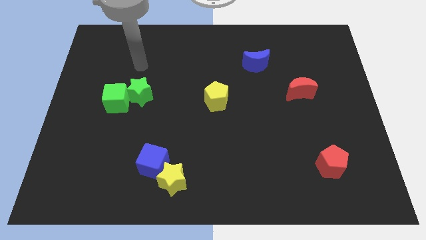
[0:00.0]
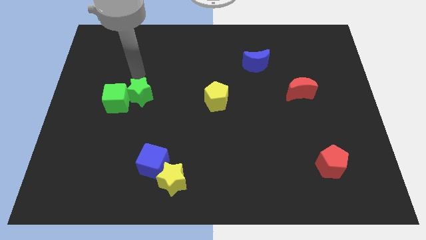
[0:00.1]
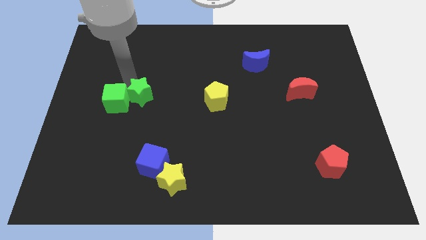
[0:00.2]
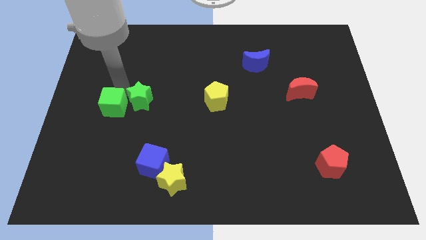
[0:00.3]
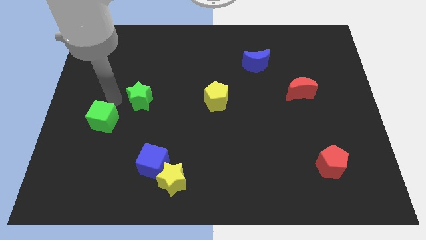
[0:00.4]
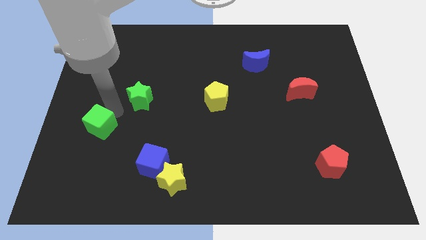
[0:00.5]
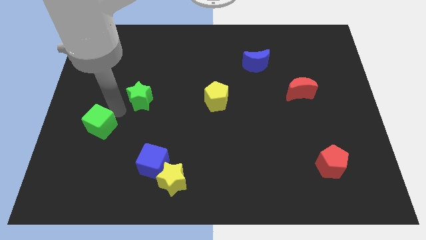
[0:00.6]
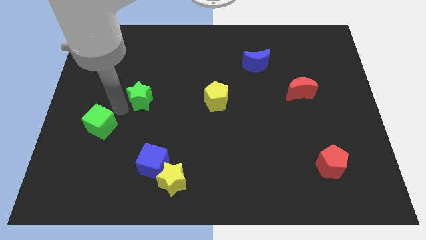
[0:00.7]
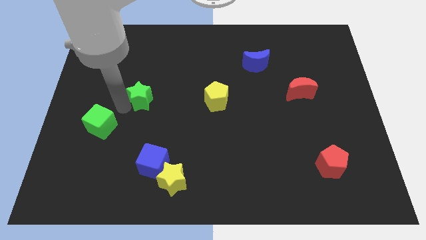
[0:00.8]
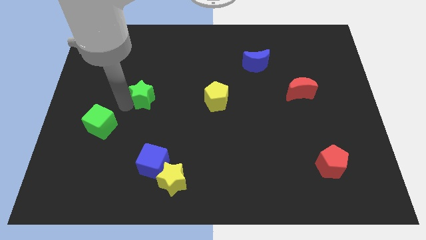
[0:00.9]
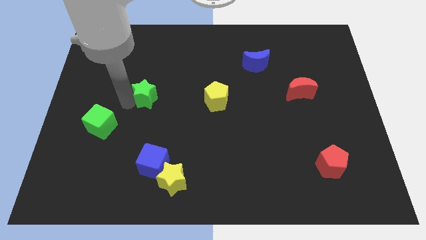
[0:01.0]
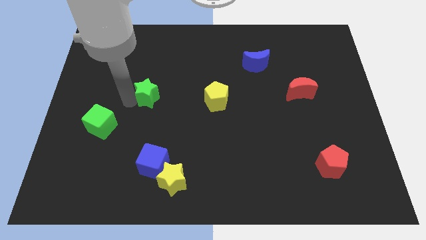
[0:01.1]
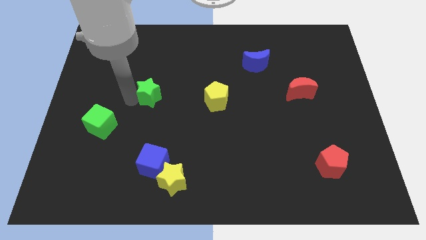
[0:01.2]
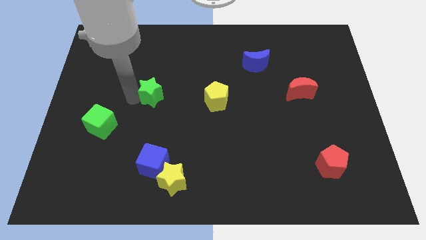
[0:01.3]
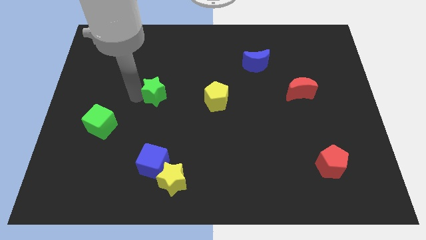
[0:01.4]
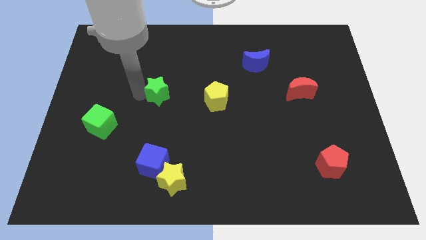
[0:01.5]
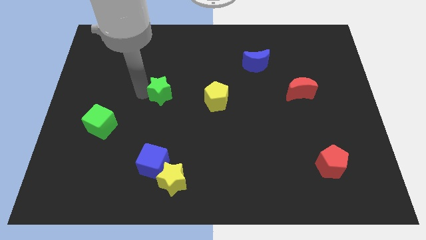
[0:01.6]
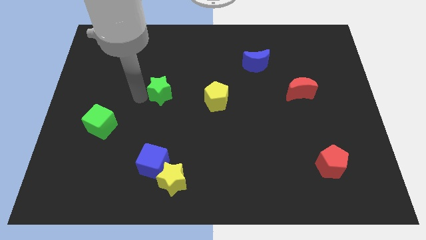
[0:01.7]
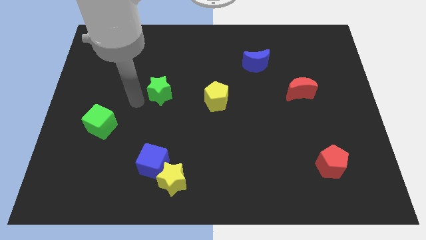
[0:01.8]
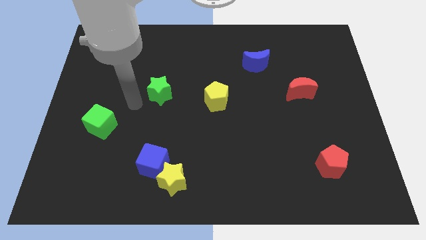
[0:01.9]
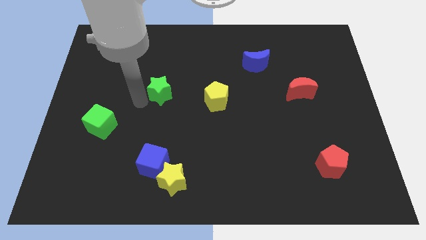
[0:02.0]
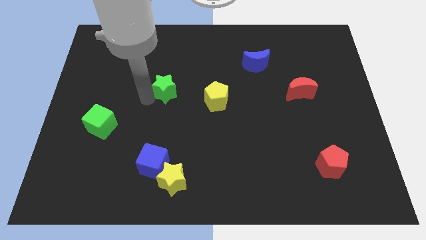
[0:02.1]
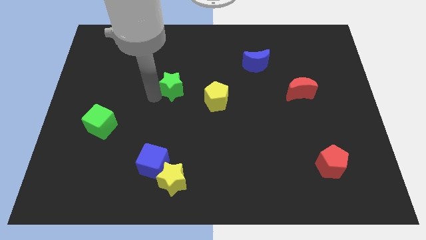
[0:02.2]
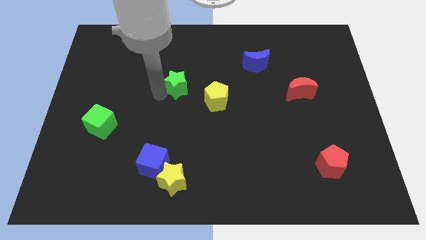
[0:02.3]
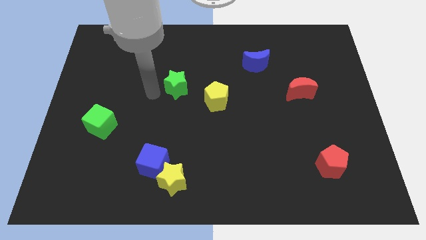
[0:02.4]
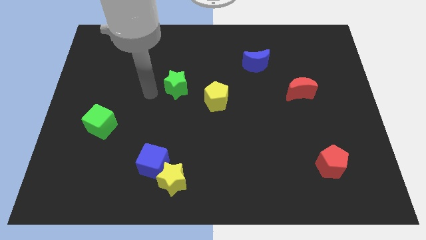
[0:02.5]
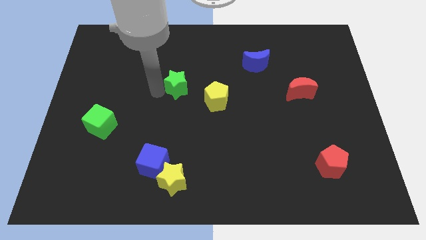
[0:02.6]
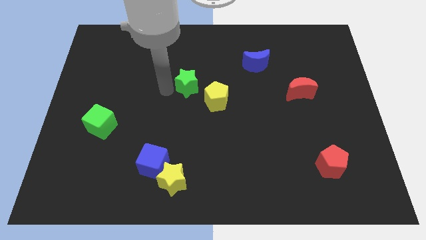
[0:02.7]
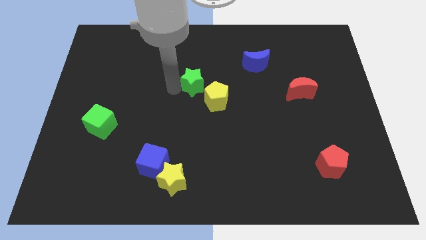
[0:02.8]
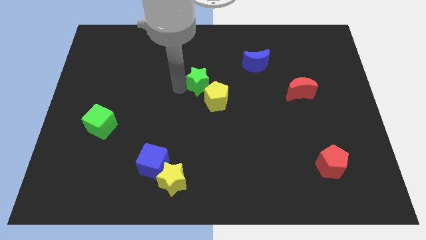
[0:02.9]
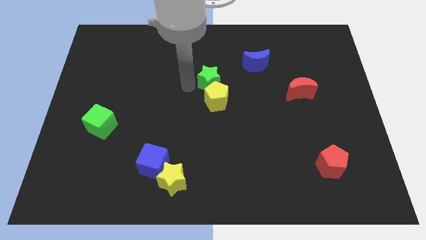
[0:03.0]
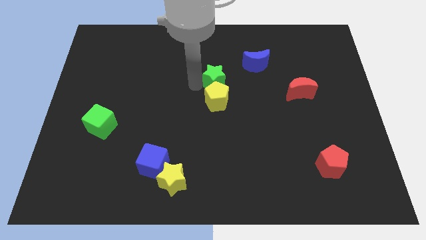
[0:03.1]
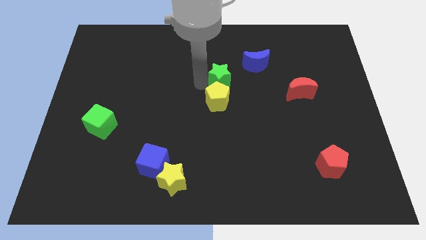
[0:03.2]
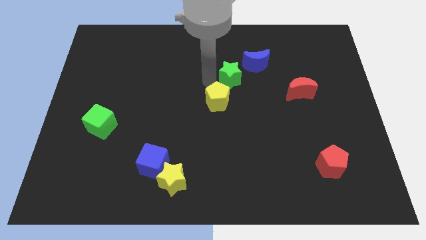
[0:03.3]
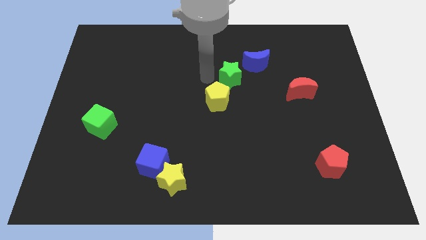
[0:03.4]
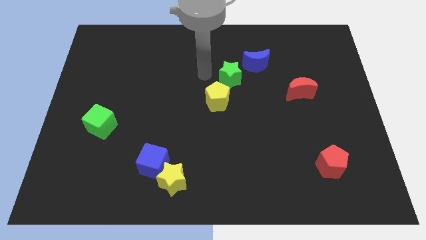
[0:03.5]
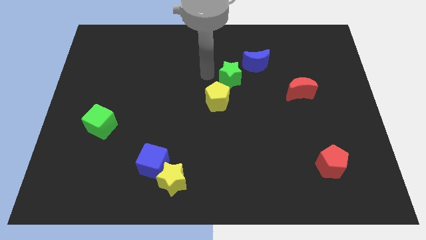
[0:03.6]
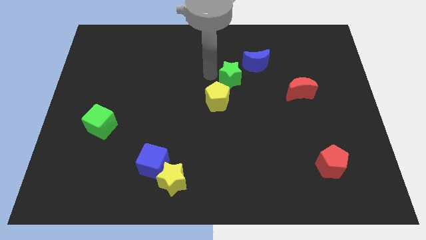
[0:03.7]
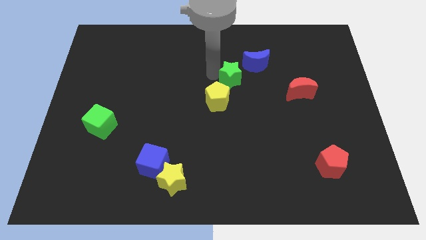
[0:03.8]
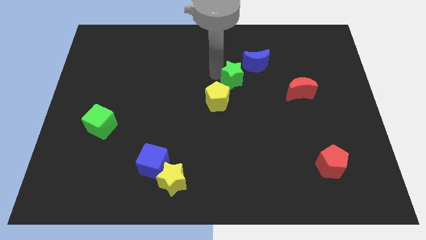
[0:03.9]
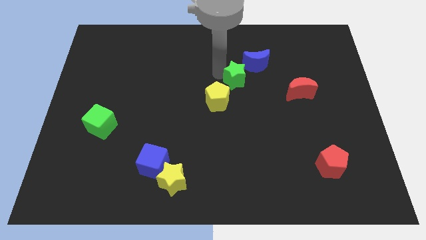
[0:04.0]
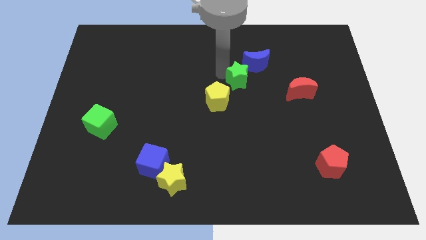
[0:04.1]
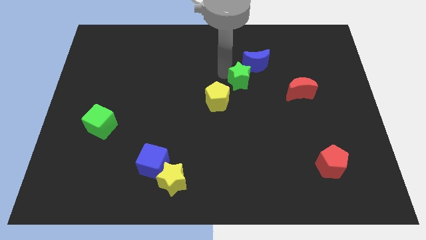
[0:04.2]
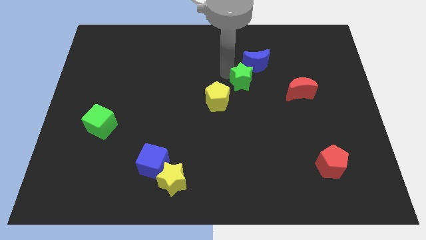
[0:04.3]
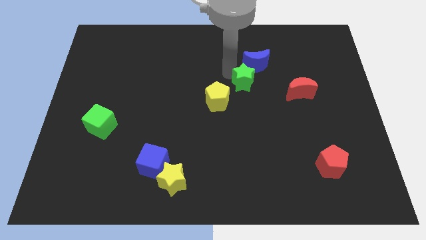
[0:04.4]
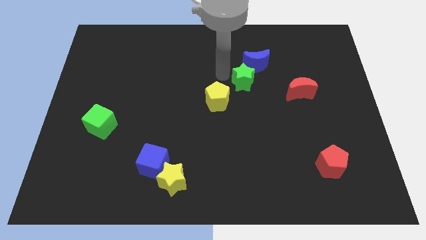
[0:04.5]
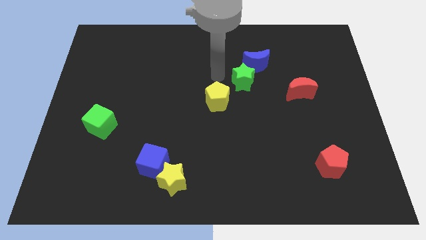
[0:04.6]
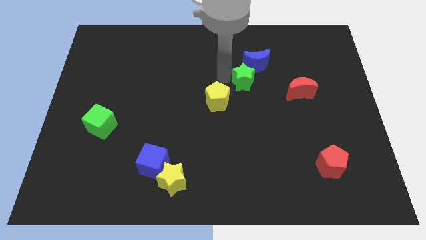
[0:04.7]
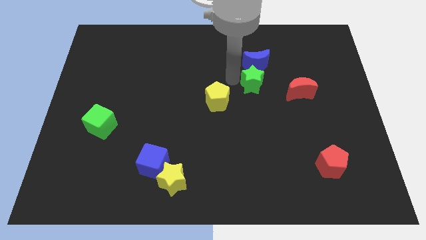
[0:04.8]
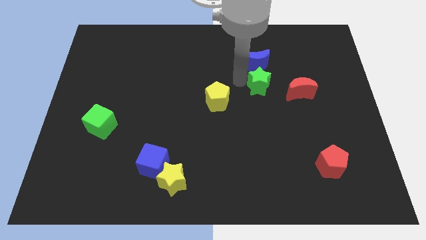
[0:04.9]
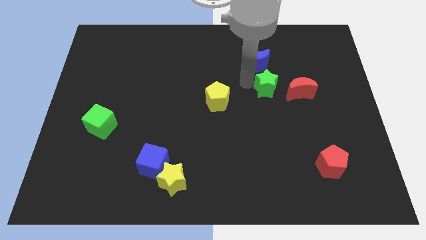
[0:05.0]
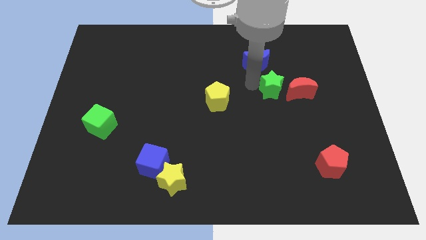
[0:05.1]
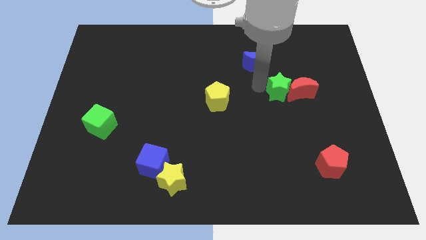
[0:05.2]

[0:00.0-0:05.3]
put the green star next to the red moon

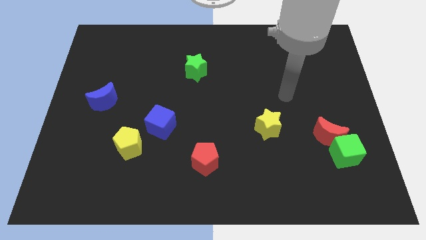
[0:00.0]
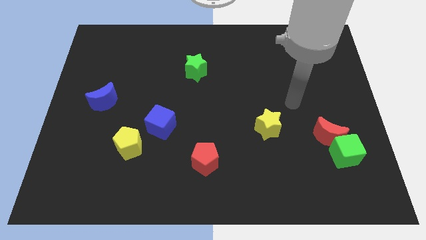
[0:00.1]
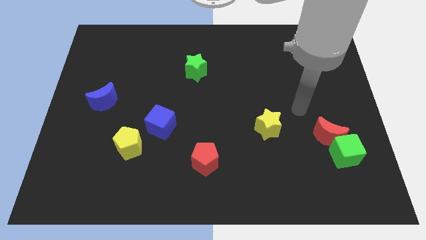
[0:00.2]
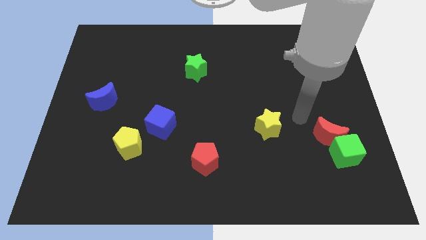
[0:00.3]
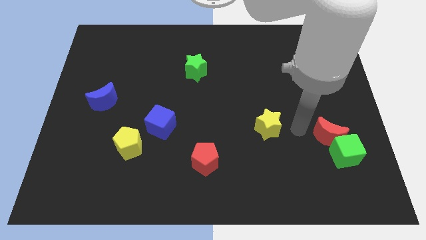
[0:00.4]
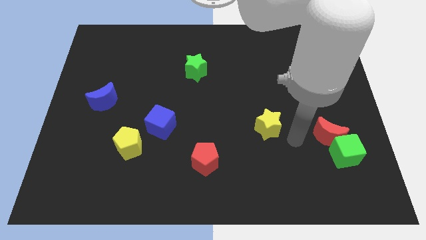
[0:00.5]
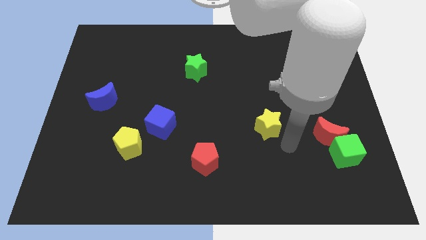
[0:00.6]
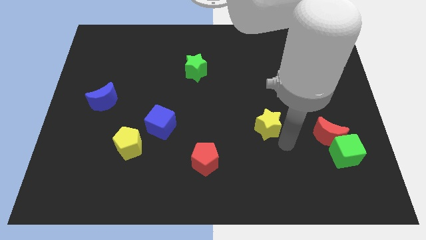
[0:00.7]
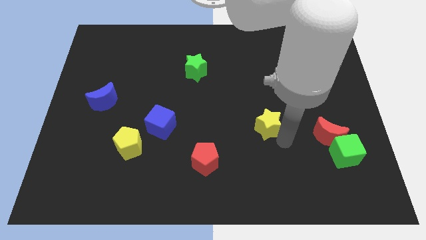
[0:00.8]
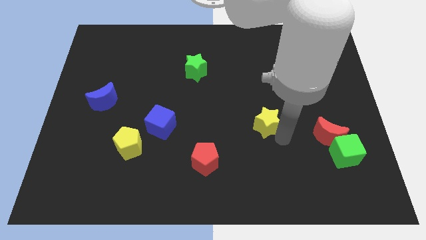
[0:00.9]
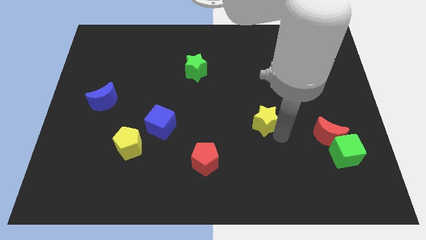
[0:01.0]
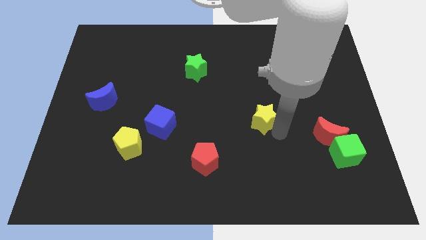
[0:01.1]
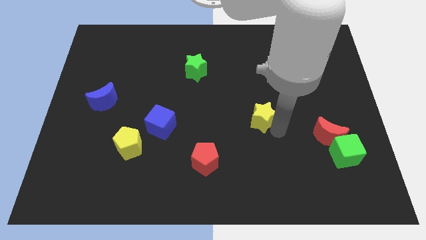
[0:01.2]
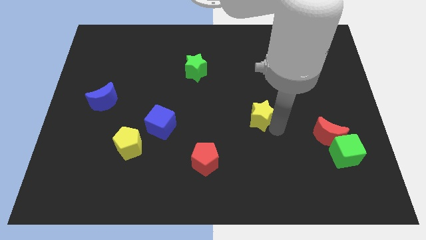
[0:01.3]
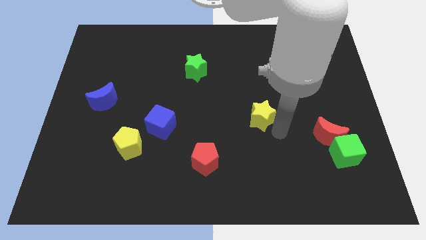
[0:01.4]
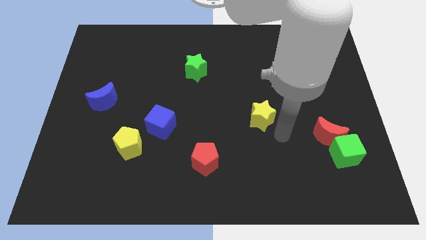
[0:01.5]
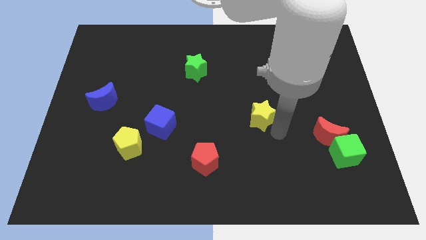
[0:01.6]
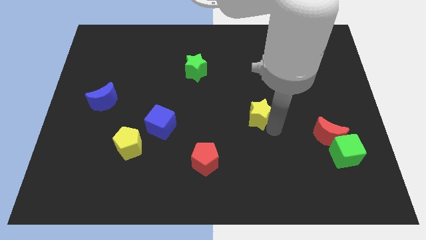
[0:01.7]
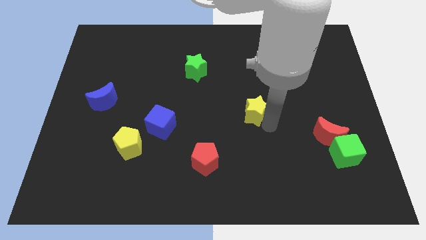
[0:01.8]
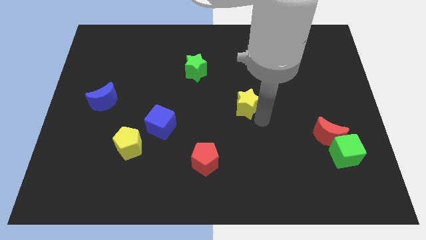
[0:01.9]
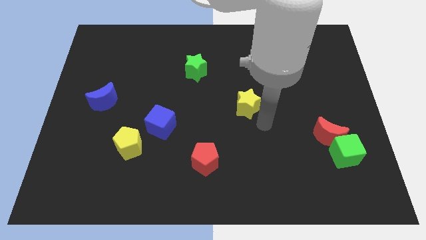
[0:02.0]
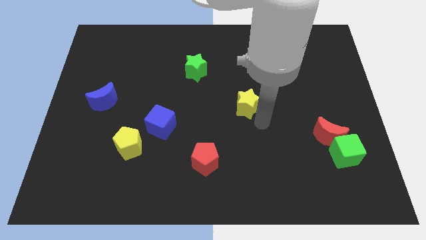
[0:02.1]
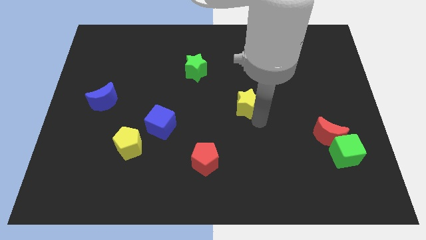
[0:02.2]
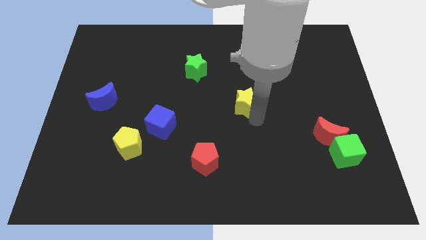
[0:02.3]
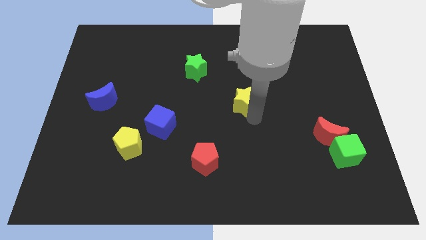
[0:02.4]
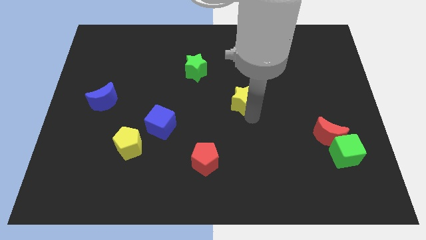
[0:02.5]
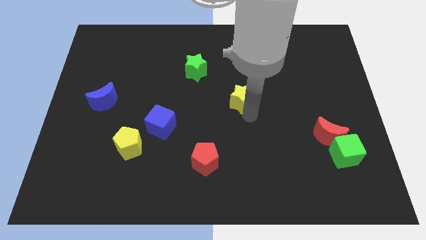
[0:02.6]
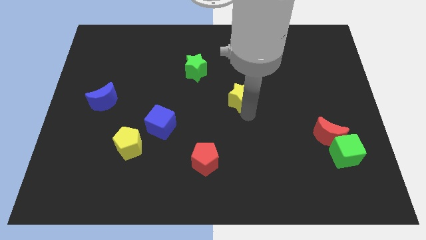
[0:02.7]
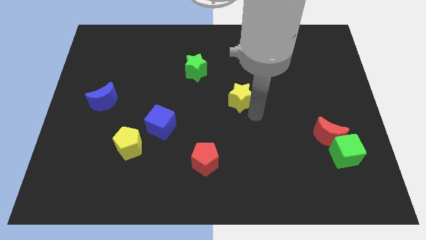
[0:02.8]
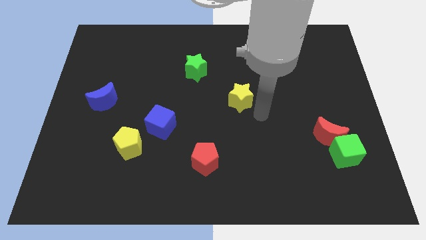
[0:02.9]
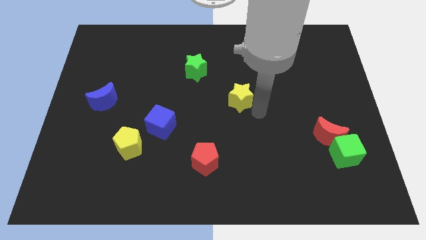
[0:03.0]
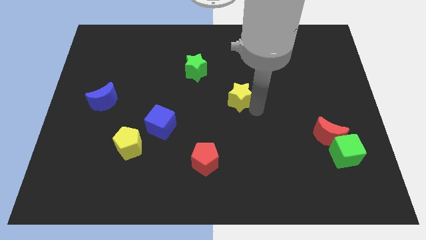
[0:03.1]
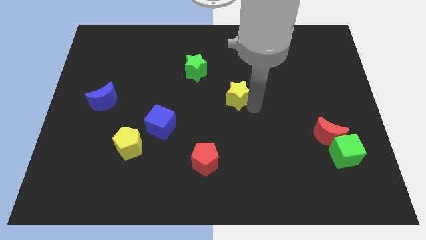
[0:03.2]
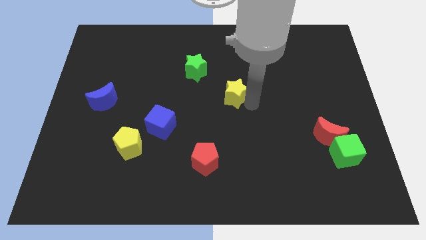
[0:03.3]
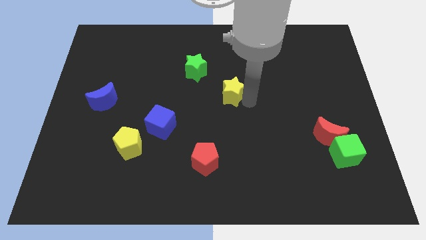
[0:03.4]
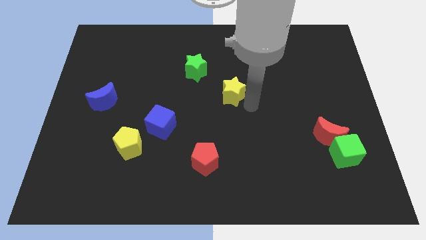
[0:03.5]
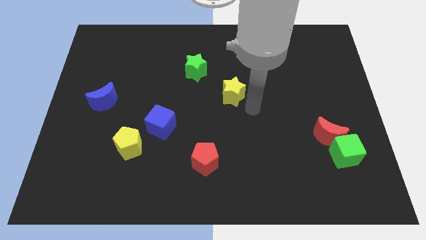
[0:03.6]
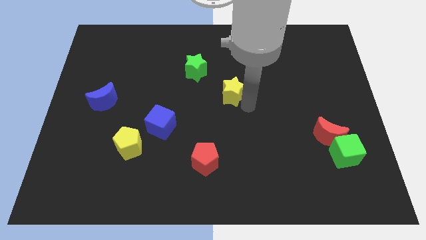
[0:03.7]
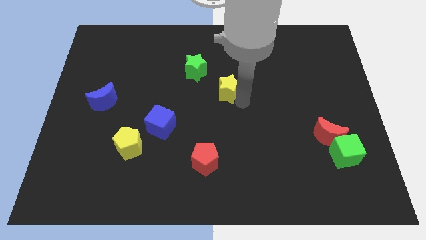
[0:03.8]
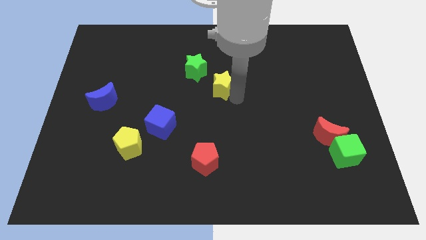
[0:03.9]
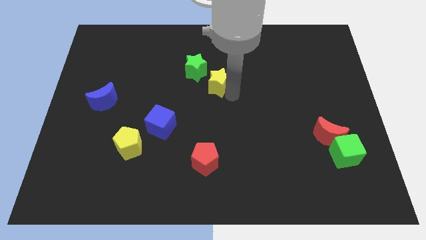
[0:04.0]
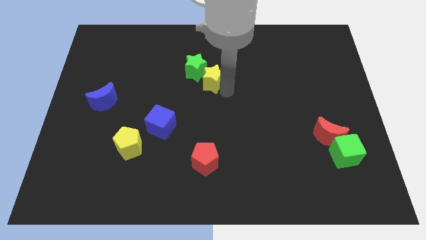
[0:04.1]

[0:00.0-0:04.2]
put the yellow star next to the green star
